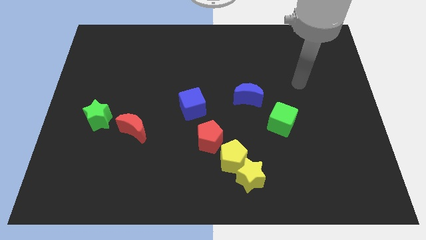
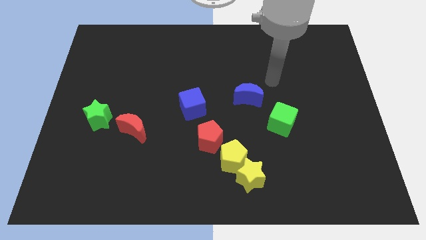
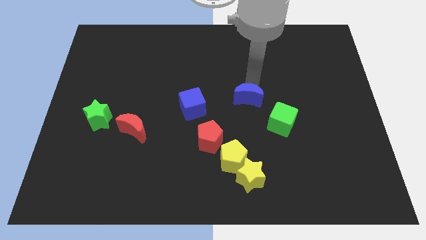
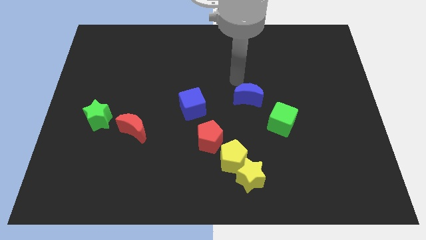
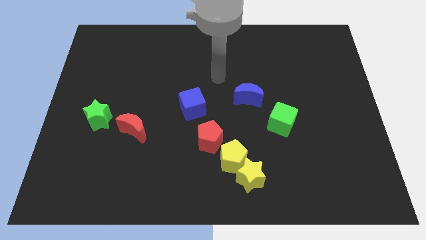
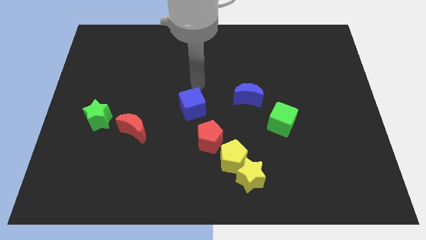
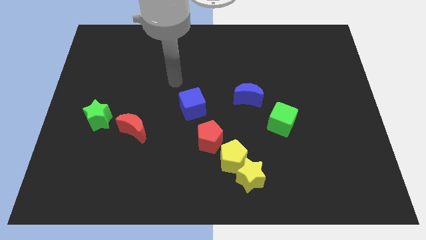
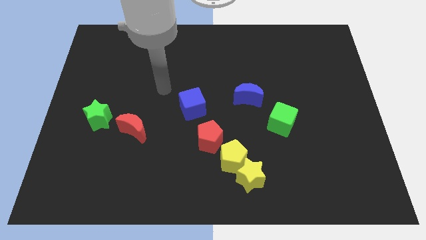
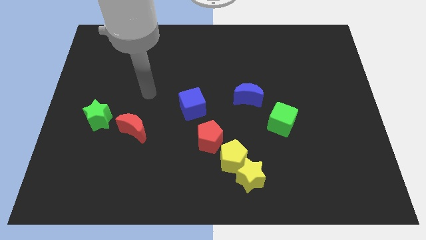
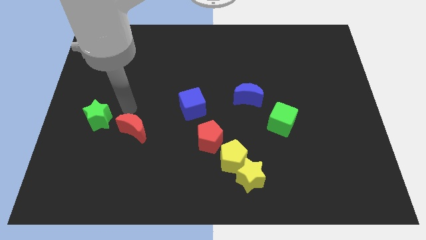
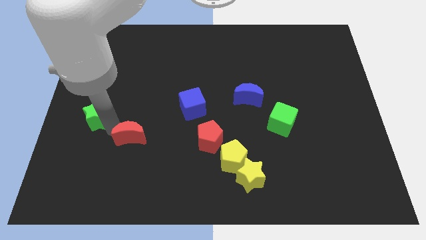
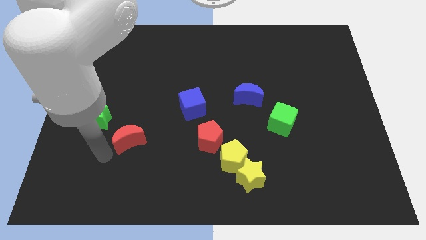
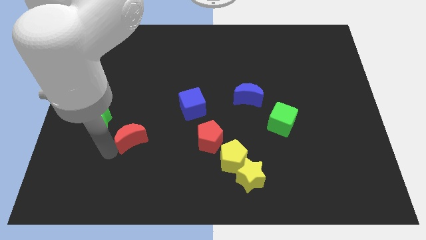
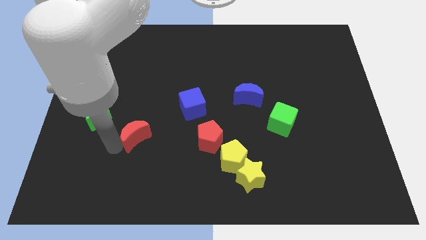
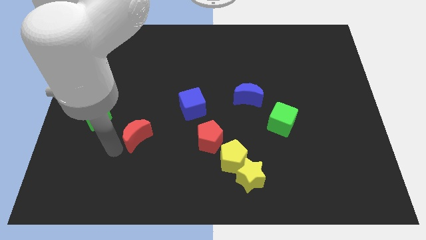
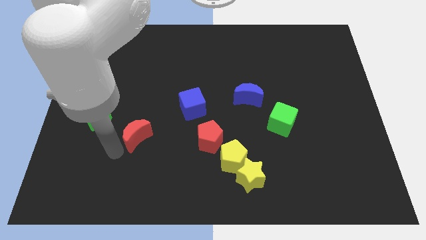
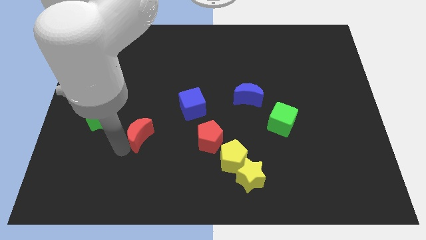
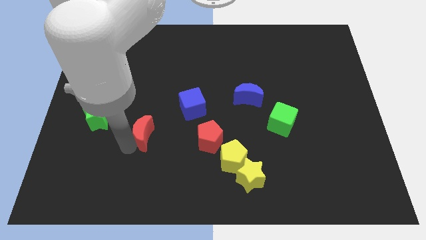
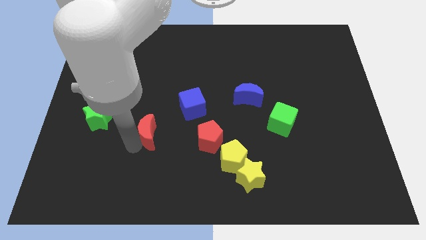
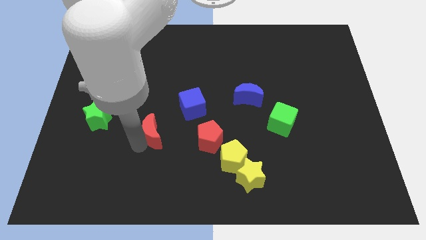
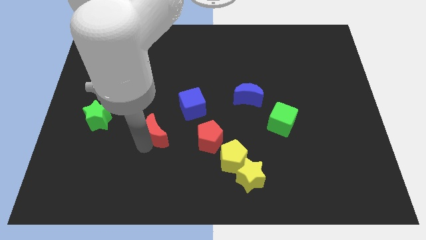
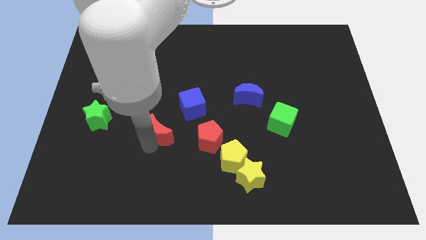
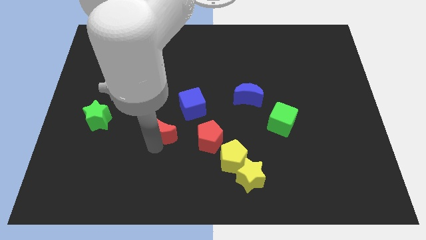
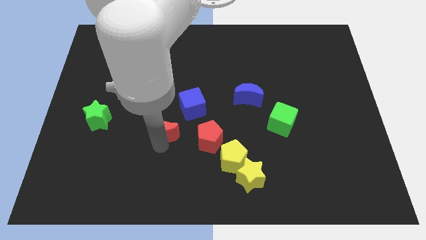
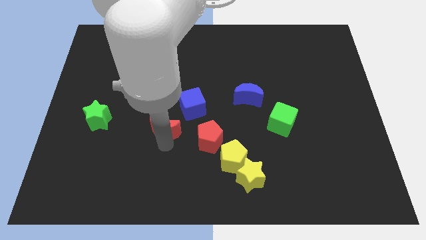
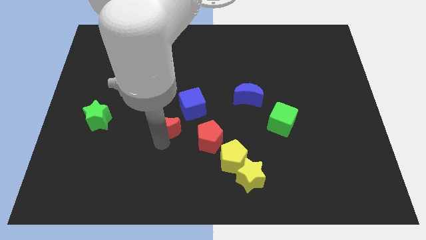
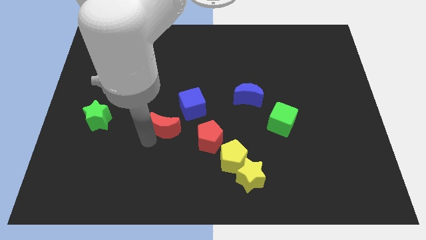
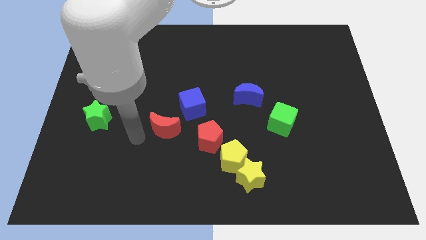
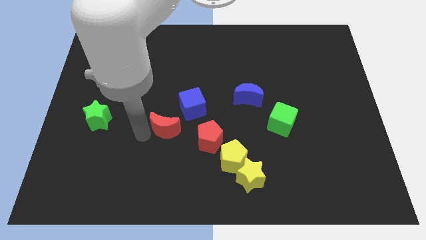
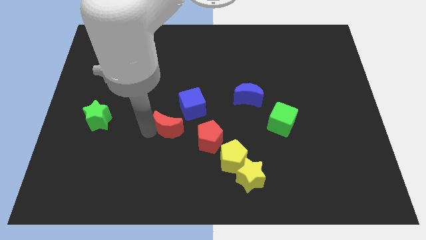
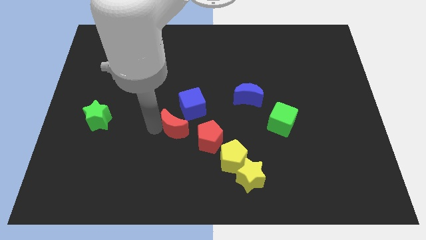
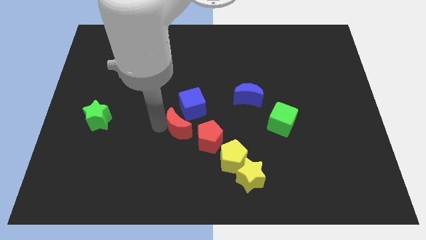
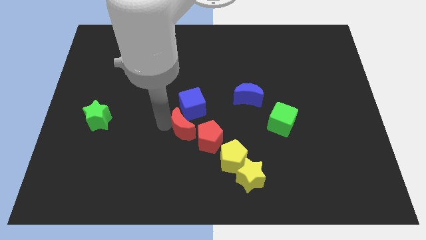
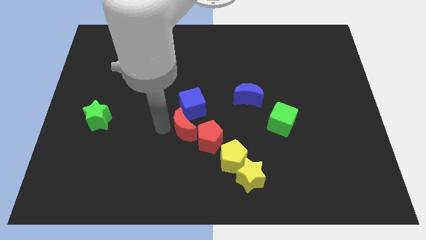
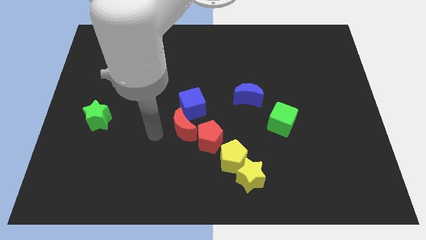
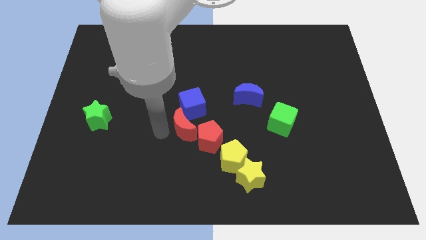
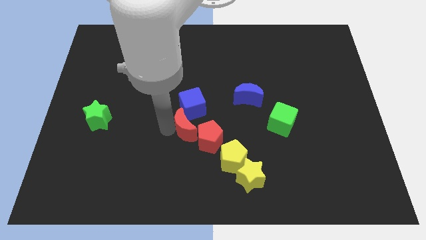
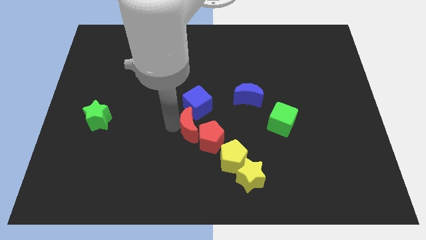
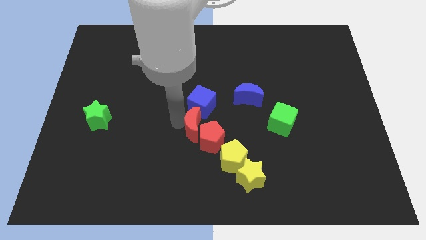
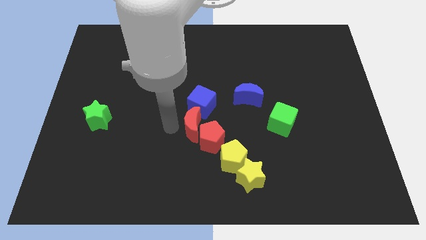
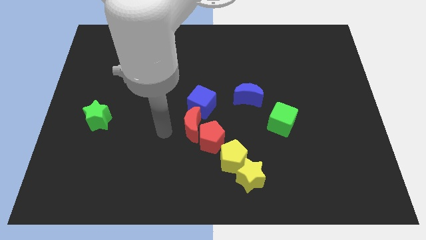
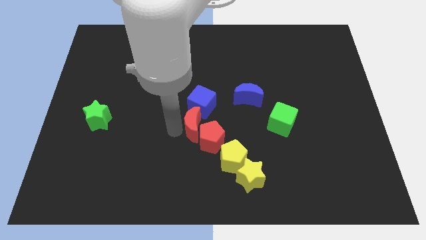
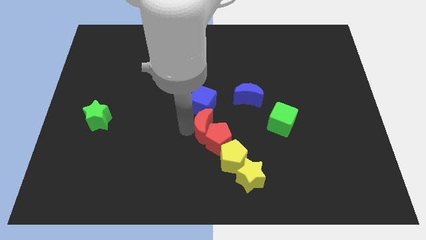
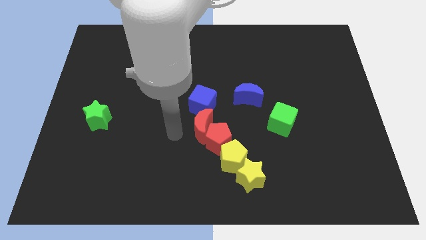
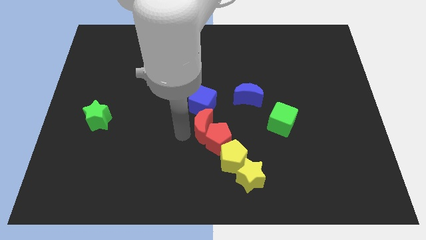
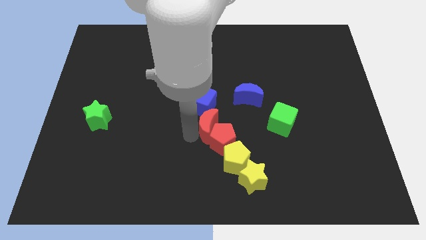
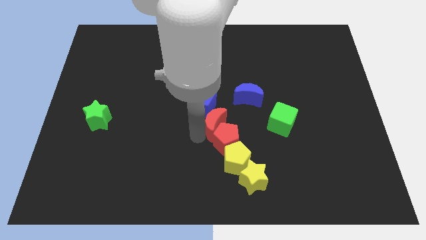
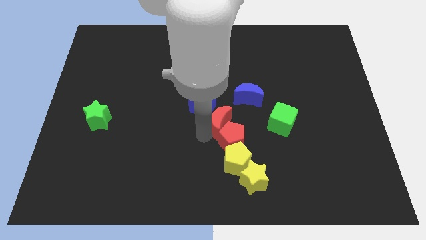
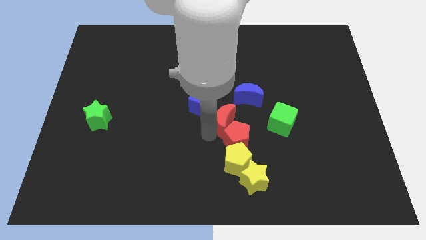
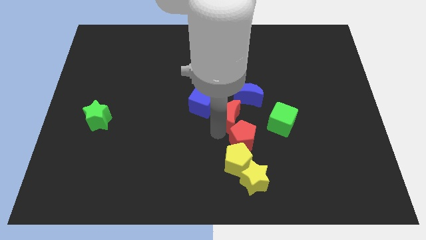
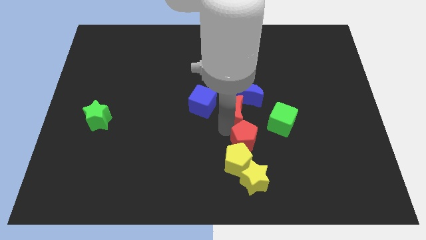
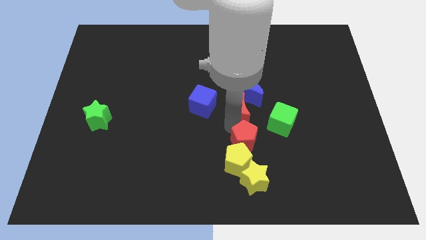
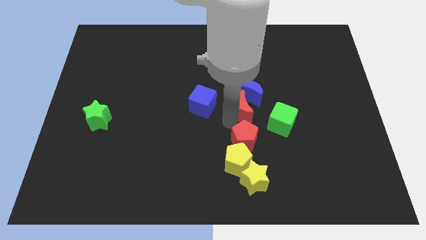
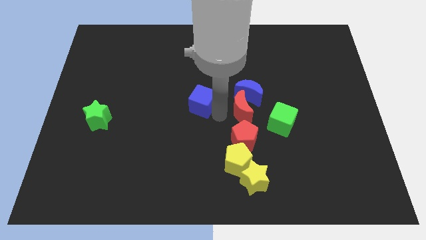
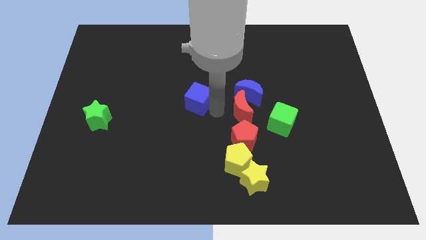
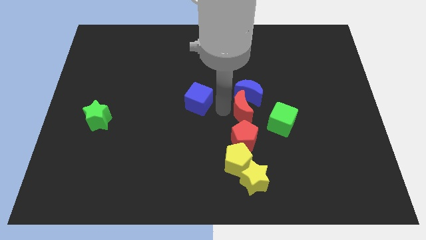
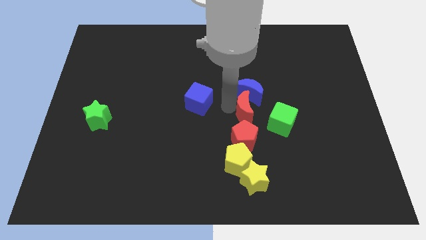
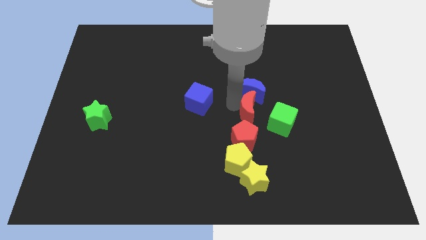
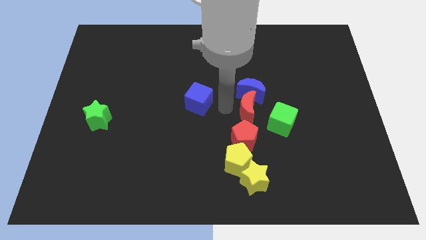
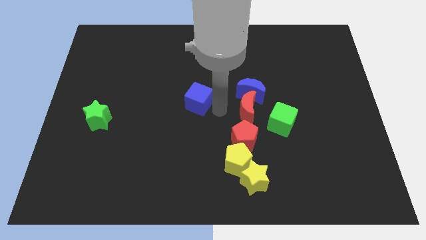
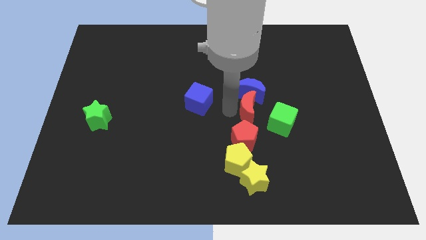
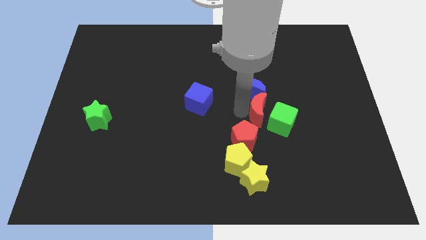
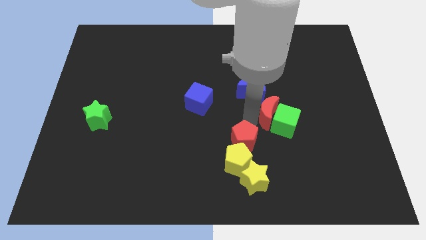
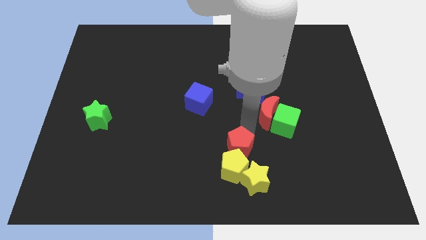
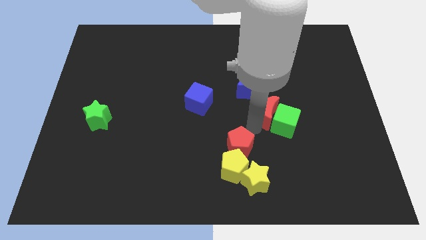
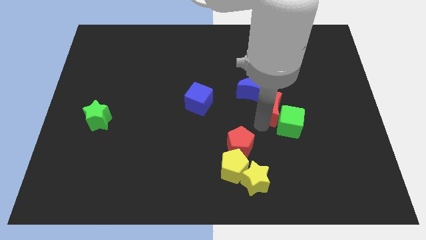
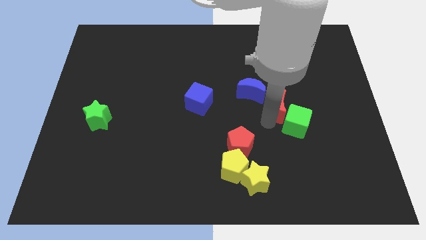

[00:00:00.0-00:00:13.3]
move the red moon just right of the blue moon

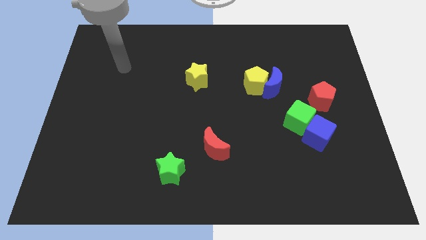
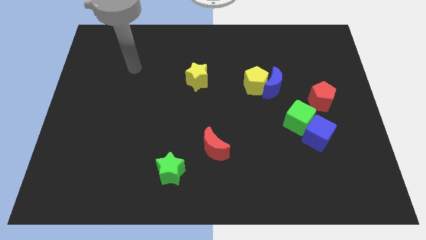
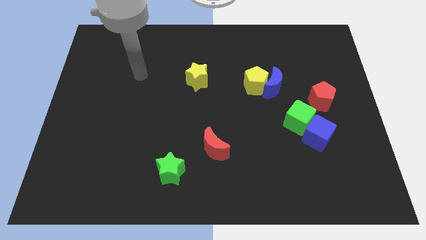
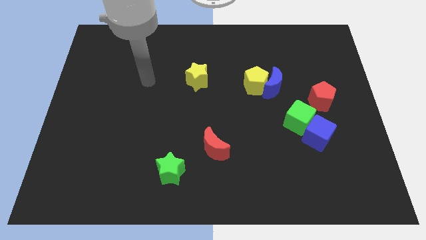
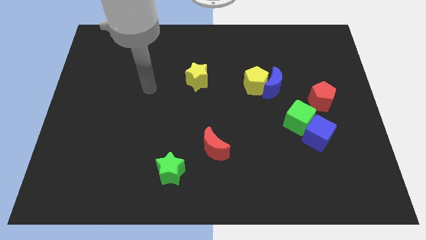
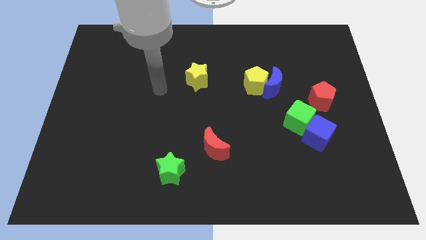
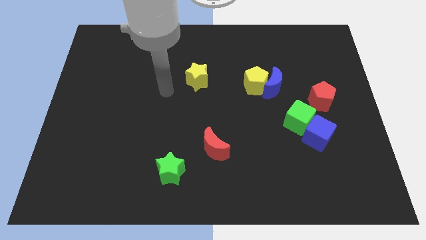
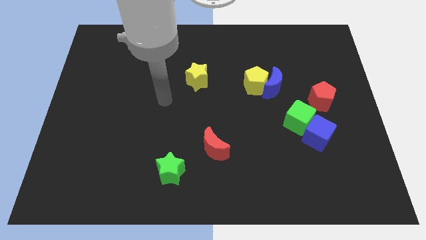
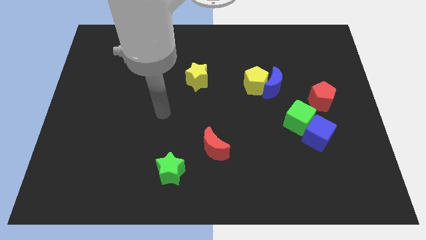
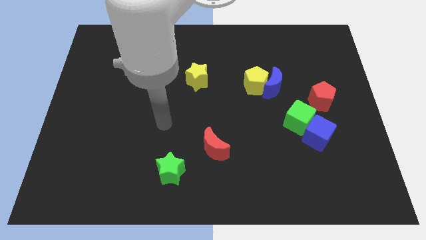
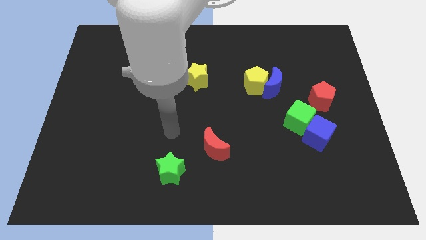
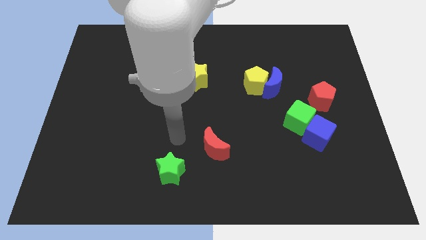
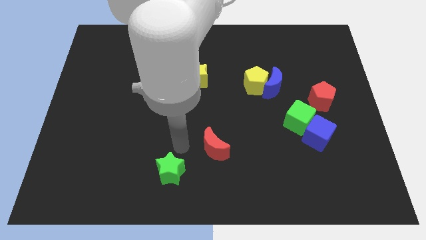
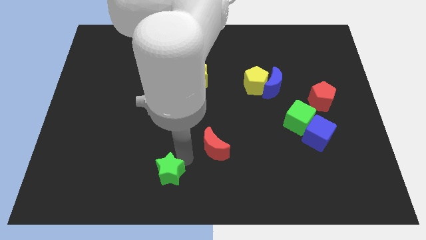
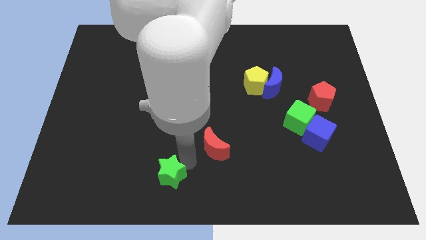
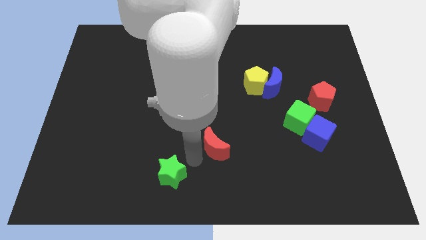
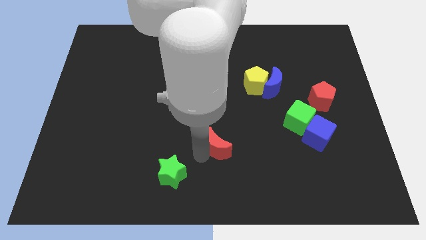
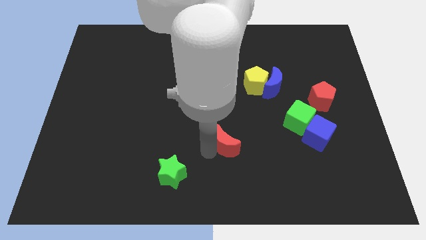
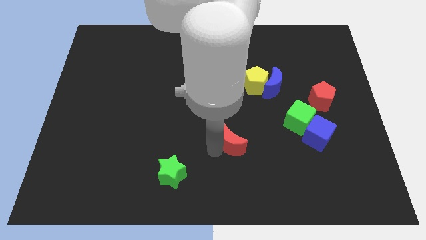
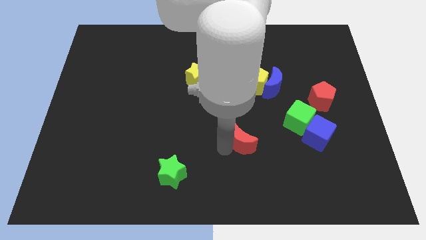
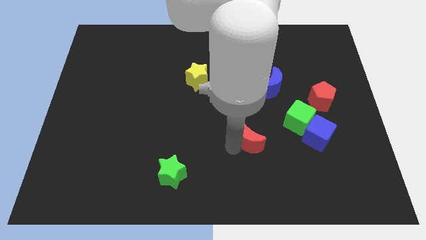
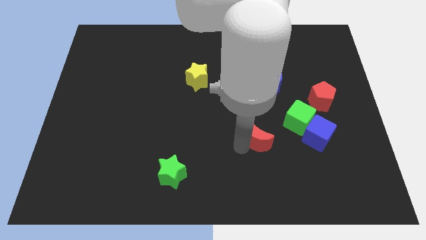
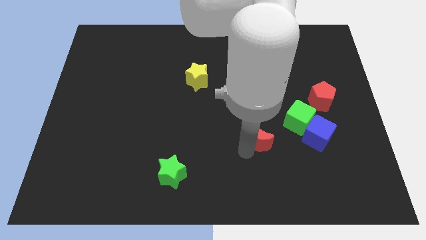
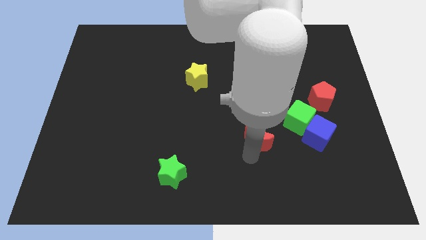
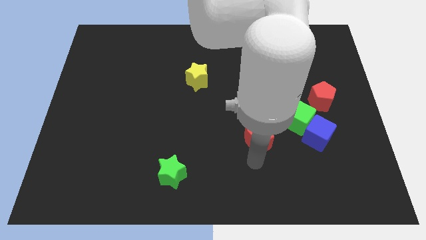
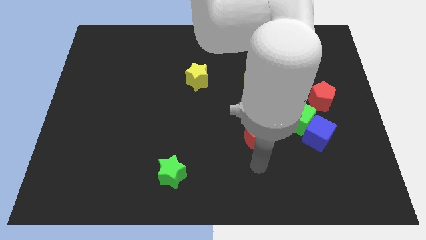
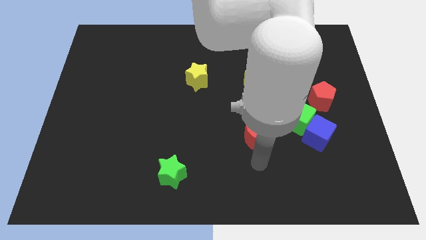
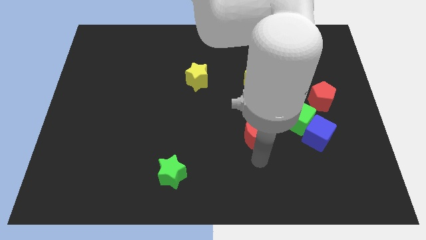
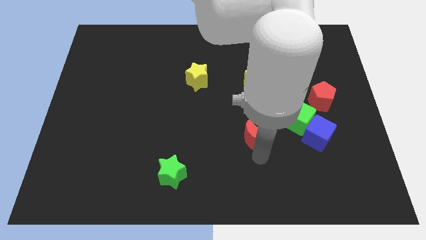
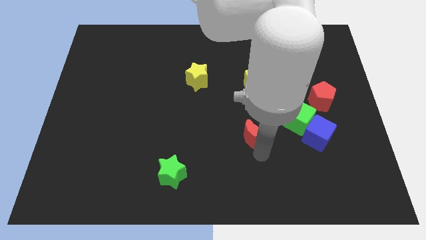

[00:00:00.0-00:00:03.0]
put the red moon to the left side of the green cube
